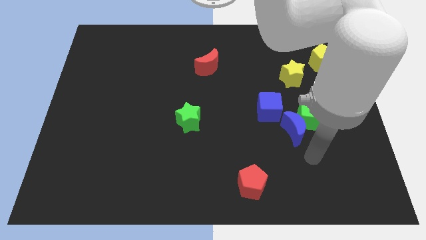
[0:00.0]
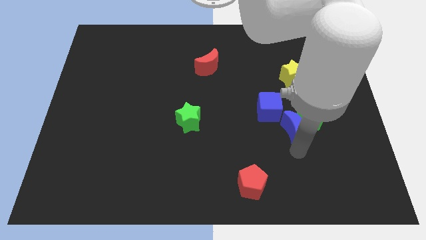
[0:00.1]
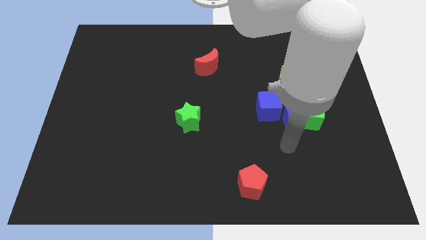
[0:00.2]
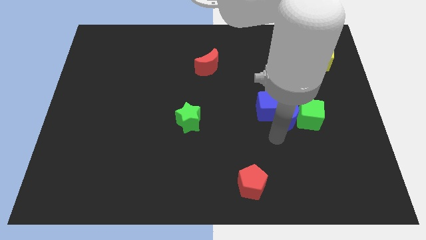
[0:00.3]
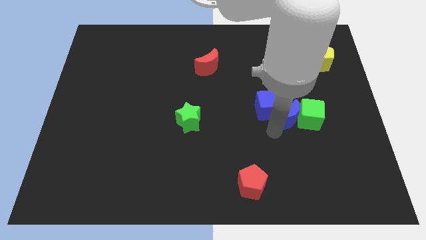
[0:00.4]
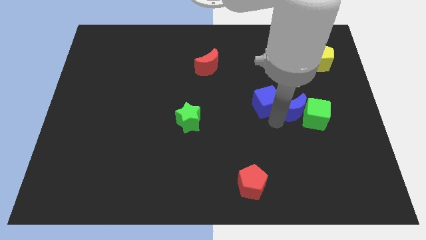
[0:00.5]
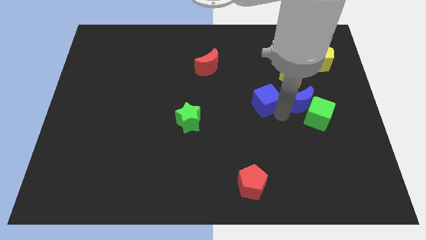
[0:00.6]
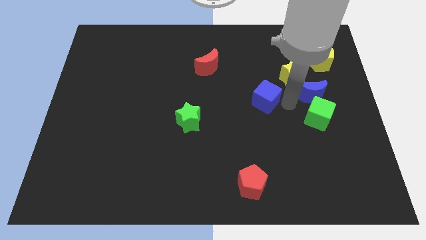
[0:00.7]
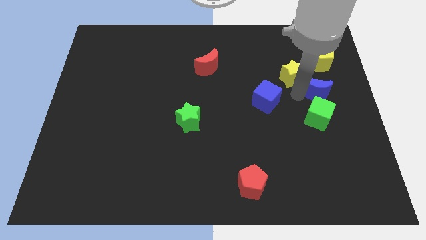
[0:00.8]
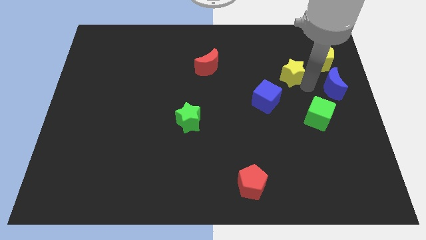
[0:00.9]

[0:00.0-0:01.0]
pull the blue moon apart from the green cube and blue cube

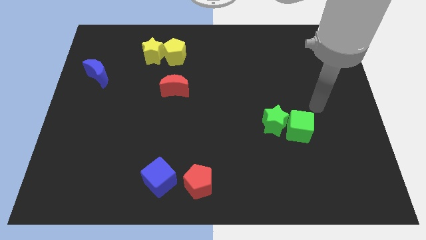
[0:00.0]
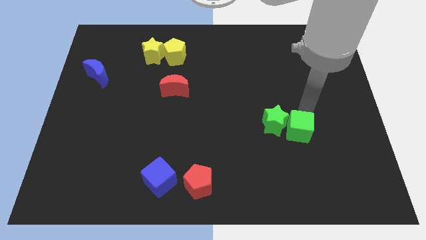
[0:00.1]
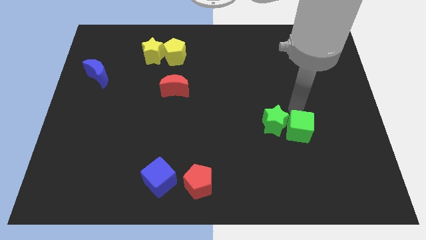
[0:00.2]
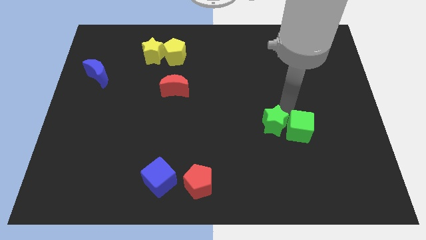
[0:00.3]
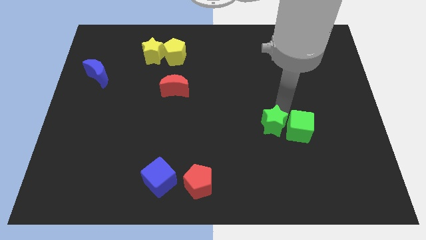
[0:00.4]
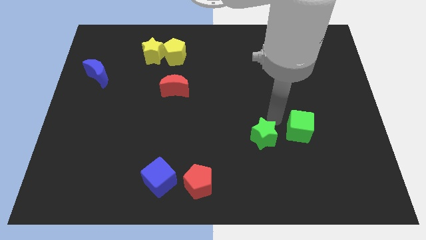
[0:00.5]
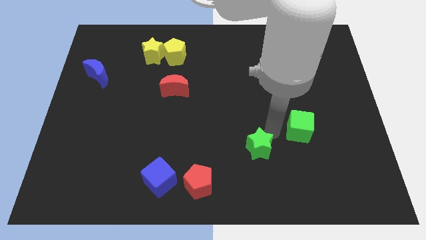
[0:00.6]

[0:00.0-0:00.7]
pull the green cube apart from the green star

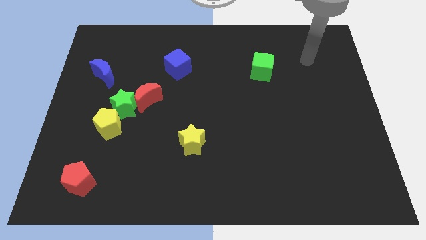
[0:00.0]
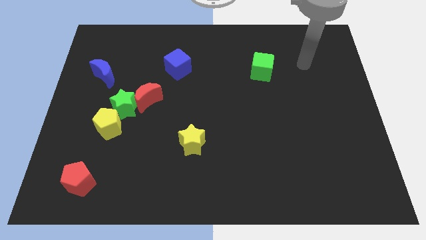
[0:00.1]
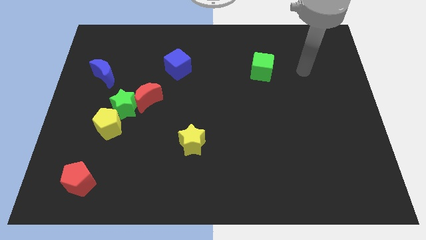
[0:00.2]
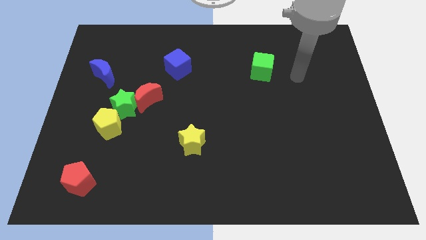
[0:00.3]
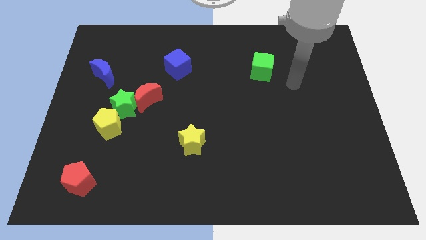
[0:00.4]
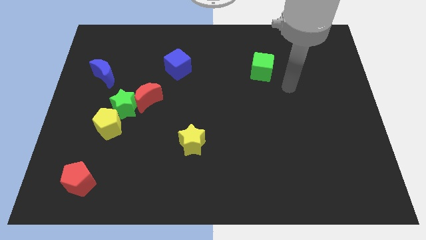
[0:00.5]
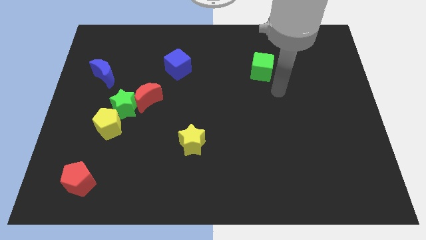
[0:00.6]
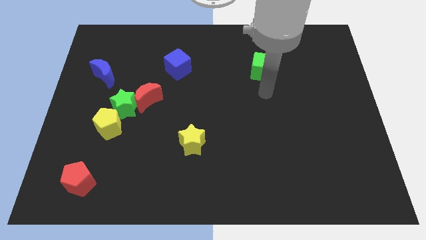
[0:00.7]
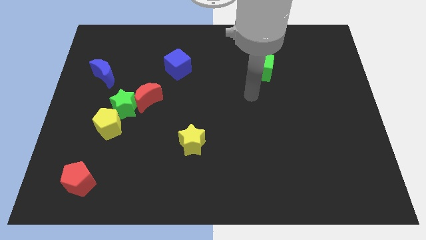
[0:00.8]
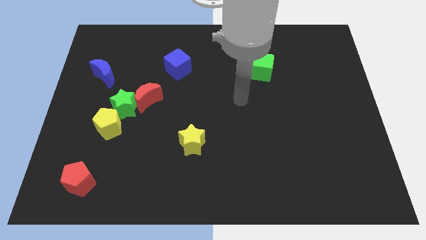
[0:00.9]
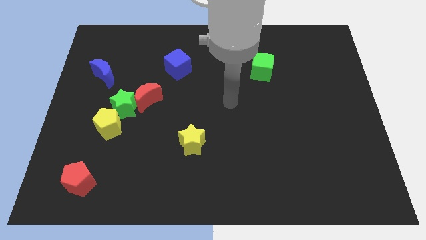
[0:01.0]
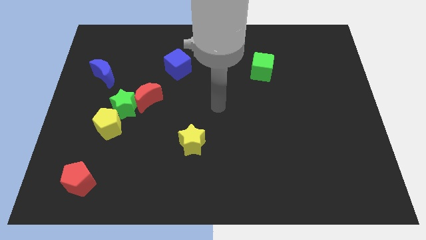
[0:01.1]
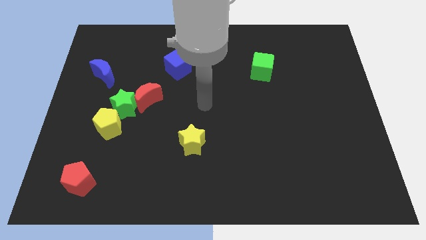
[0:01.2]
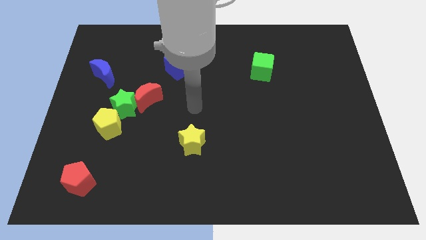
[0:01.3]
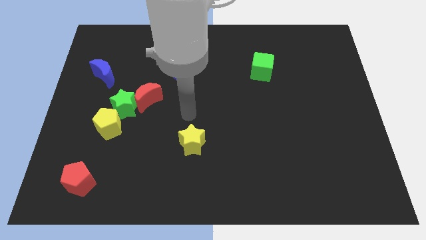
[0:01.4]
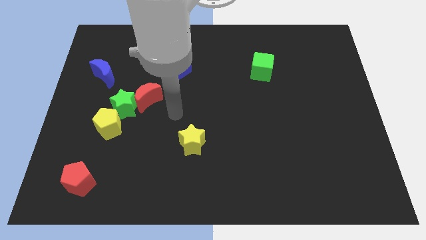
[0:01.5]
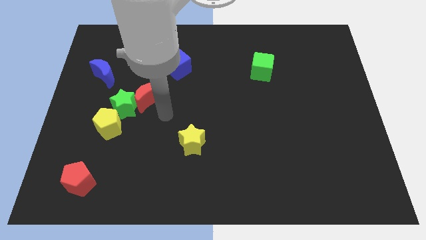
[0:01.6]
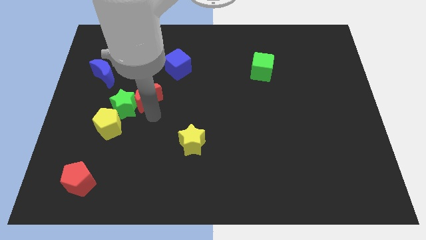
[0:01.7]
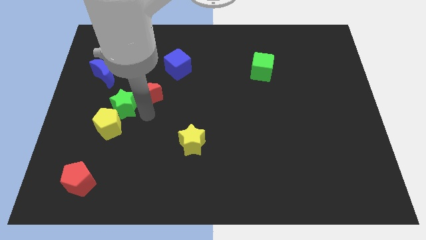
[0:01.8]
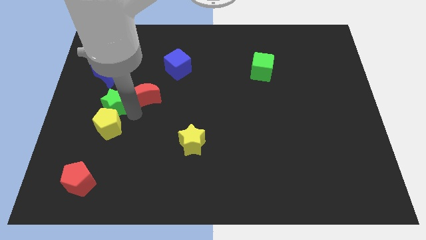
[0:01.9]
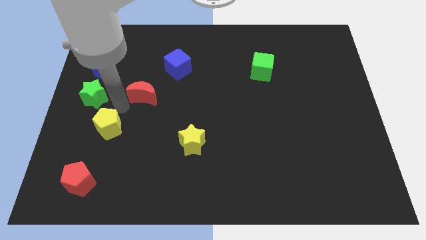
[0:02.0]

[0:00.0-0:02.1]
separate the red moon from the green star

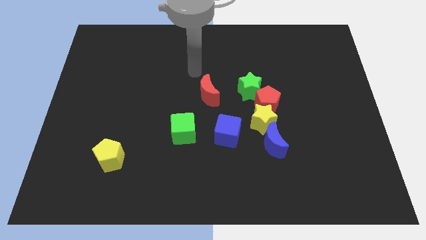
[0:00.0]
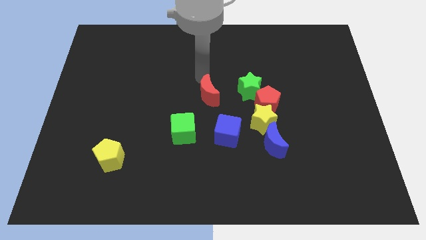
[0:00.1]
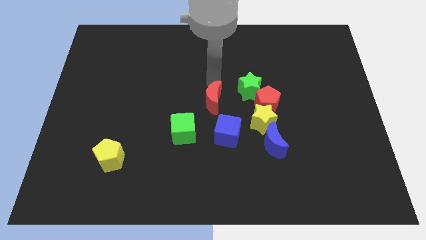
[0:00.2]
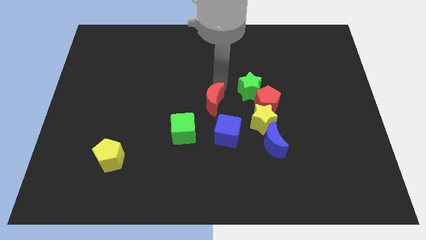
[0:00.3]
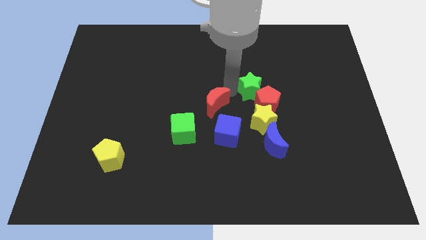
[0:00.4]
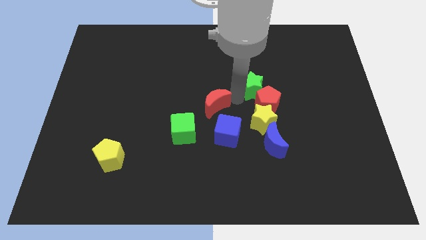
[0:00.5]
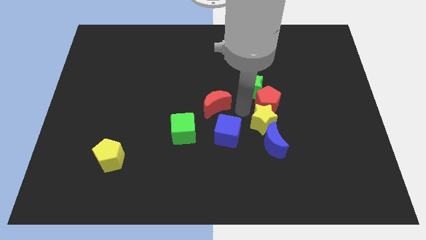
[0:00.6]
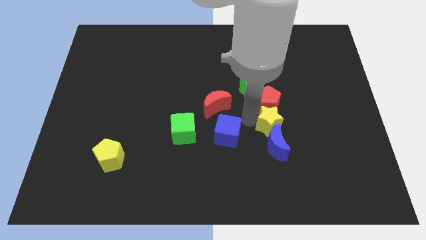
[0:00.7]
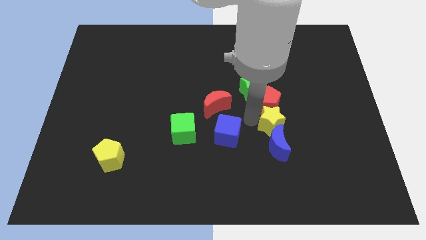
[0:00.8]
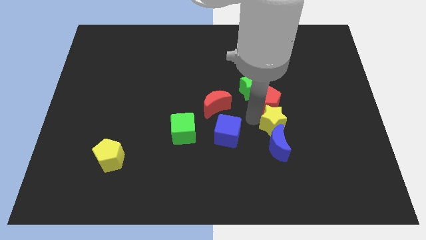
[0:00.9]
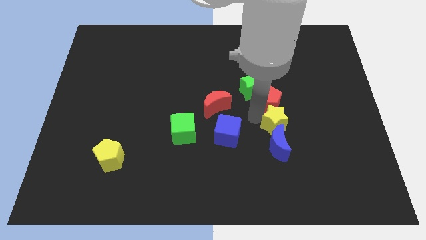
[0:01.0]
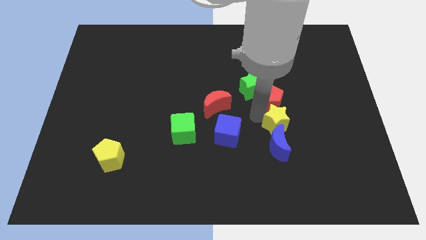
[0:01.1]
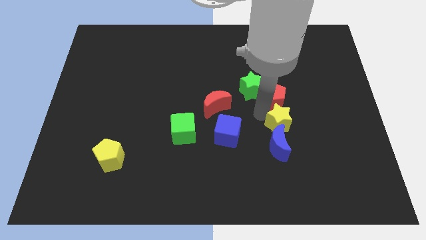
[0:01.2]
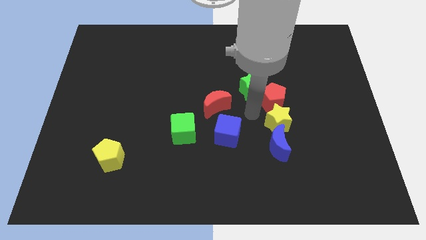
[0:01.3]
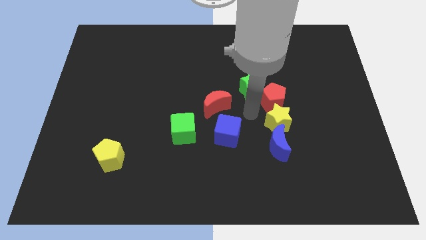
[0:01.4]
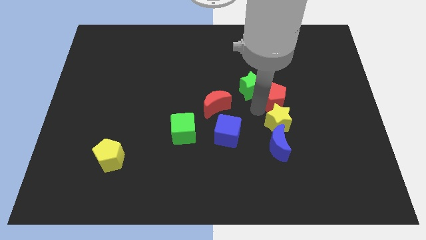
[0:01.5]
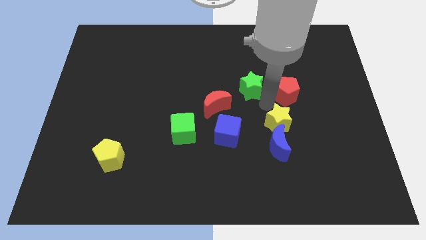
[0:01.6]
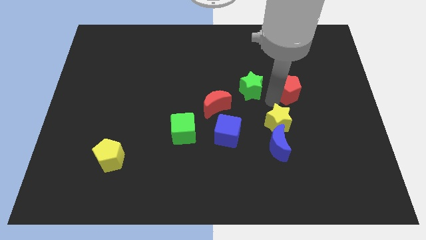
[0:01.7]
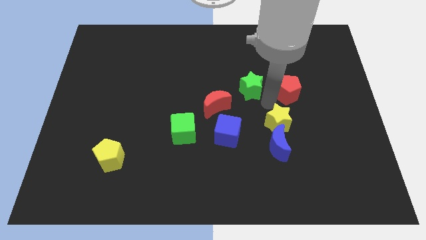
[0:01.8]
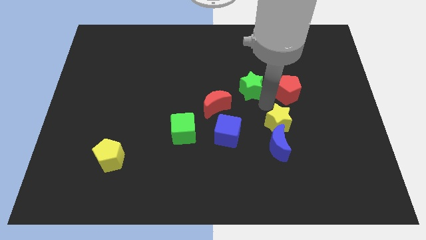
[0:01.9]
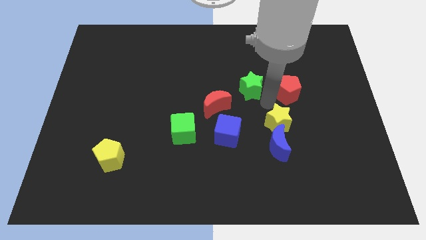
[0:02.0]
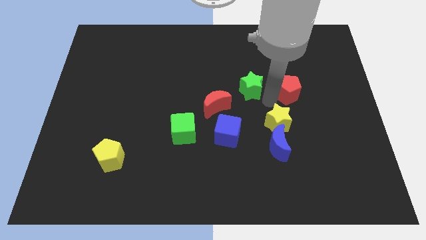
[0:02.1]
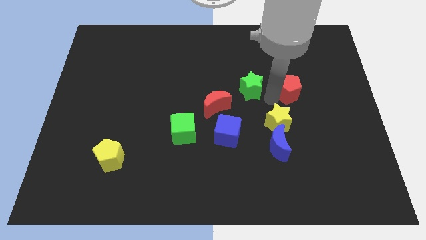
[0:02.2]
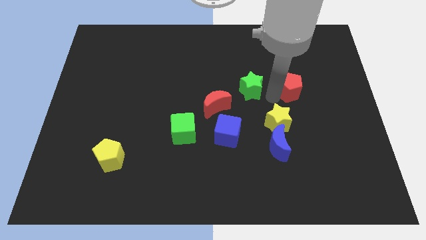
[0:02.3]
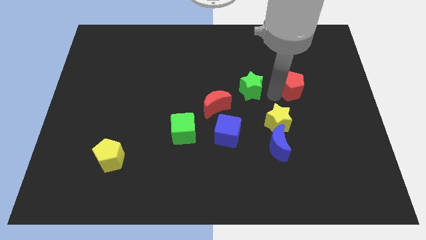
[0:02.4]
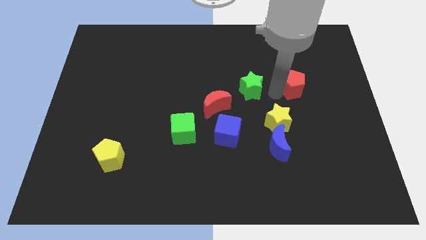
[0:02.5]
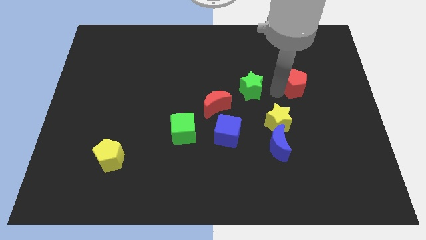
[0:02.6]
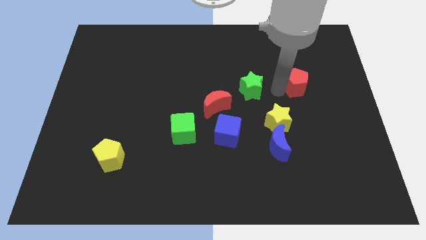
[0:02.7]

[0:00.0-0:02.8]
separate the red pentagon from the yellow star and green star

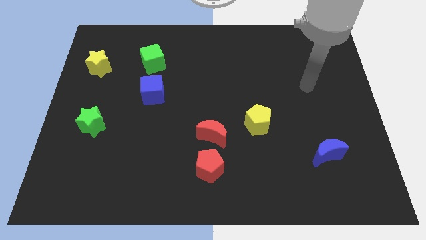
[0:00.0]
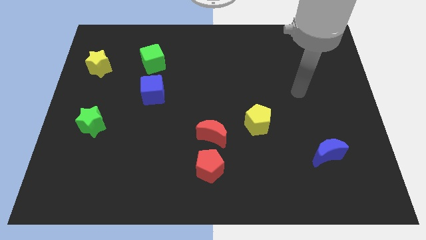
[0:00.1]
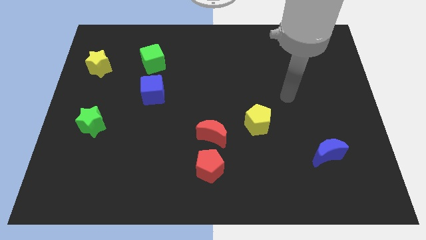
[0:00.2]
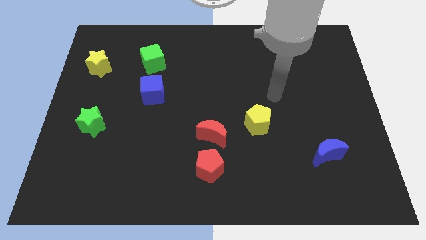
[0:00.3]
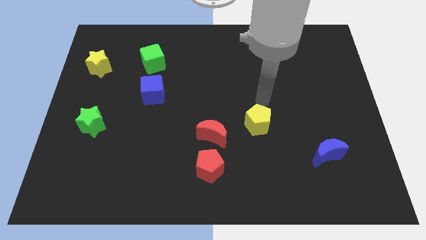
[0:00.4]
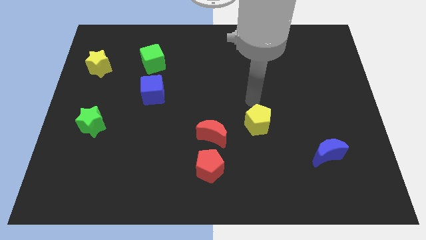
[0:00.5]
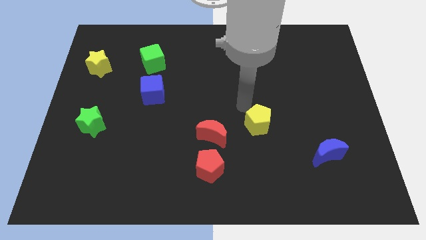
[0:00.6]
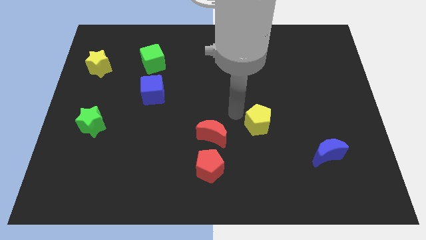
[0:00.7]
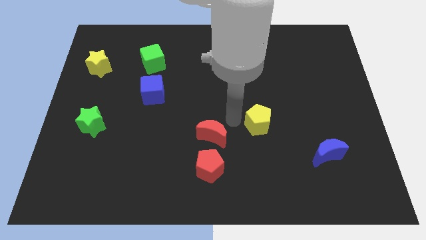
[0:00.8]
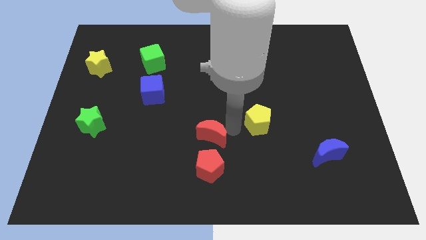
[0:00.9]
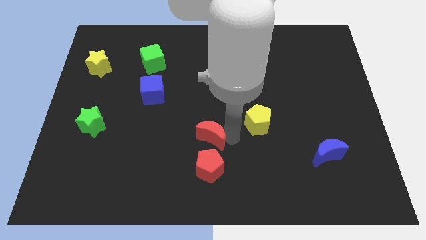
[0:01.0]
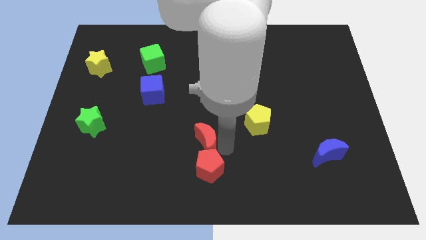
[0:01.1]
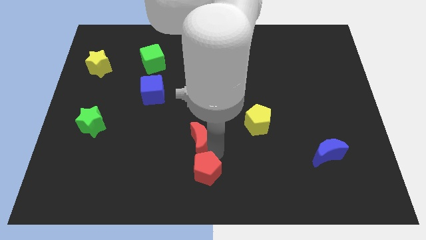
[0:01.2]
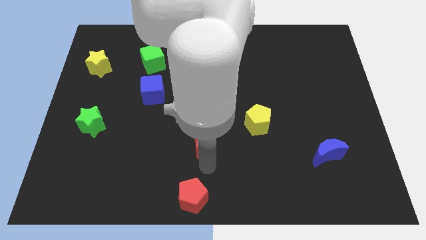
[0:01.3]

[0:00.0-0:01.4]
separate the red moon from the red pentagon

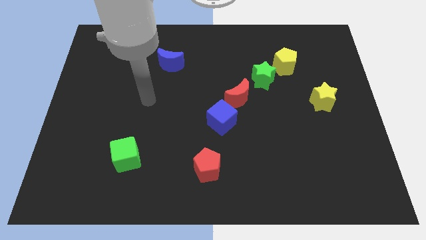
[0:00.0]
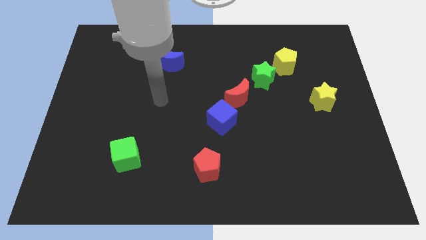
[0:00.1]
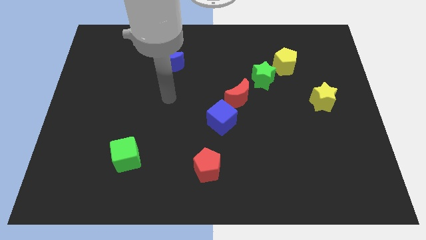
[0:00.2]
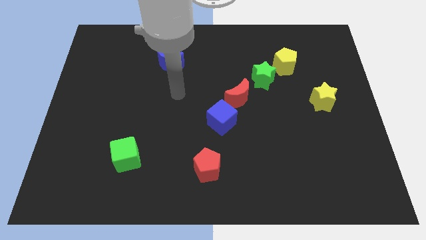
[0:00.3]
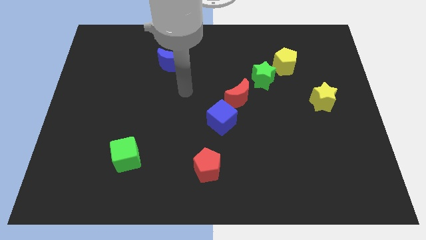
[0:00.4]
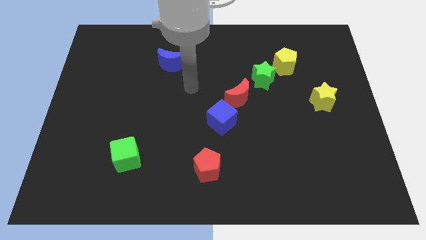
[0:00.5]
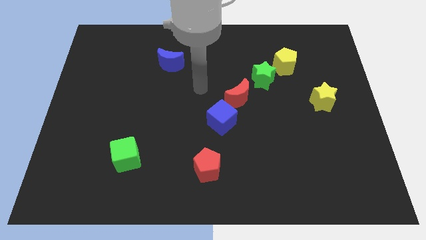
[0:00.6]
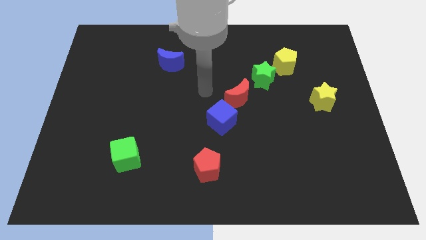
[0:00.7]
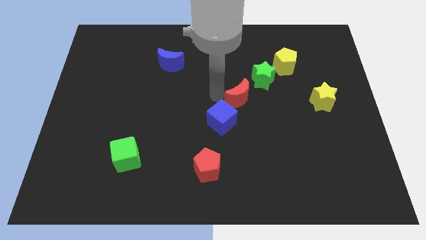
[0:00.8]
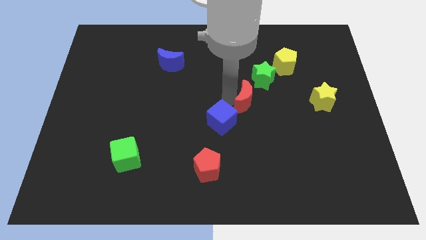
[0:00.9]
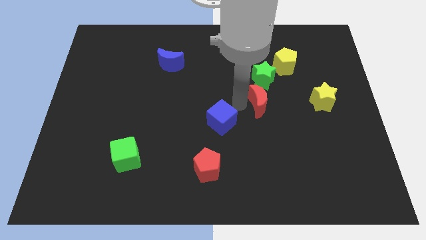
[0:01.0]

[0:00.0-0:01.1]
pull the blue cube apart from the red moon

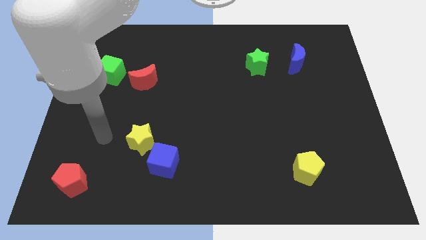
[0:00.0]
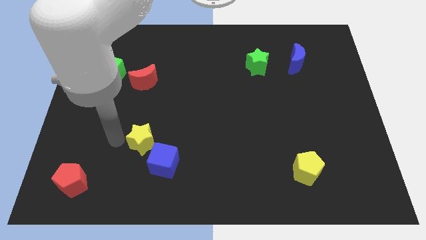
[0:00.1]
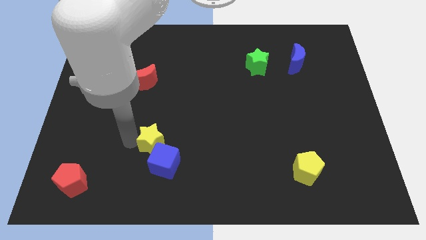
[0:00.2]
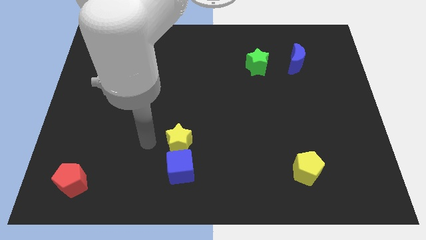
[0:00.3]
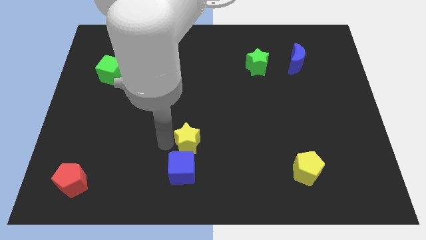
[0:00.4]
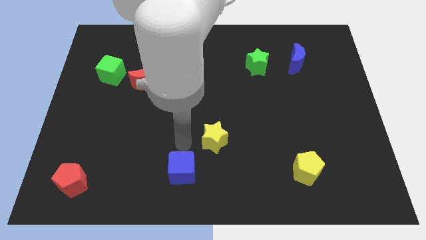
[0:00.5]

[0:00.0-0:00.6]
separate the blue cube from the yellow star
